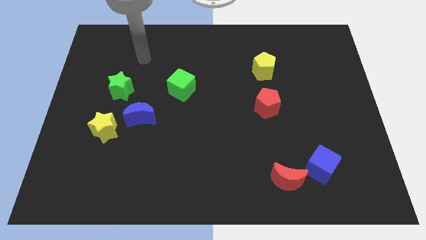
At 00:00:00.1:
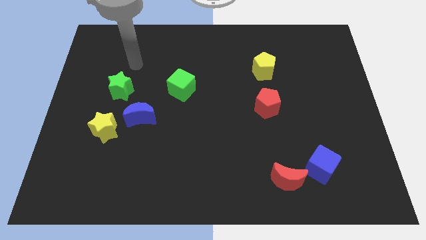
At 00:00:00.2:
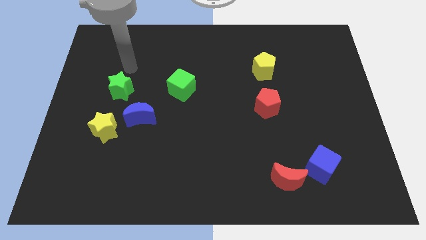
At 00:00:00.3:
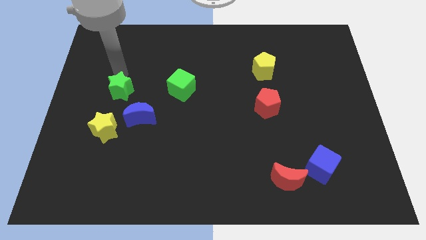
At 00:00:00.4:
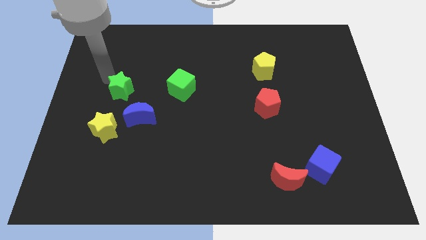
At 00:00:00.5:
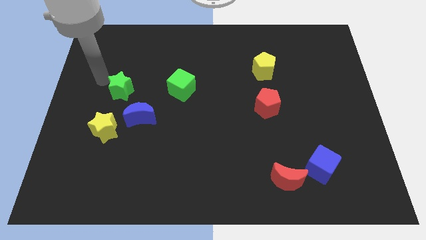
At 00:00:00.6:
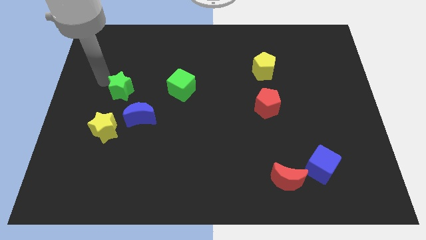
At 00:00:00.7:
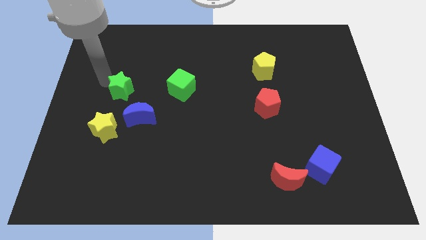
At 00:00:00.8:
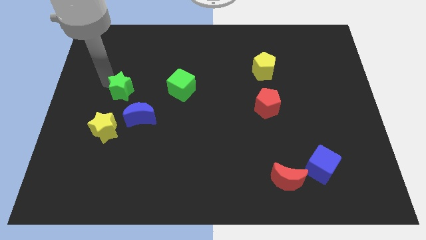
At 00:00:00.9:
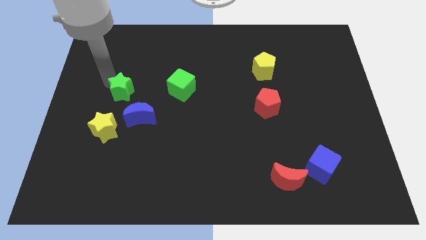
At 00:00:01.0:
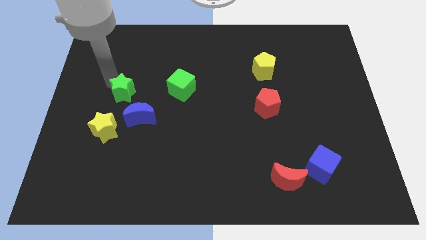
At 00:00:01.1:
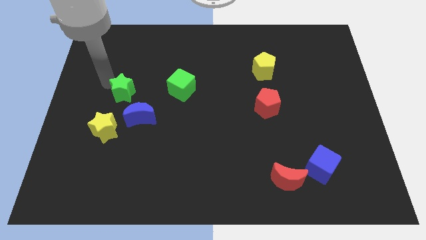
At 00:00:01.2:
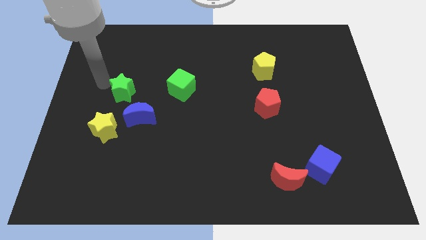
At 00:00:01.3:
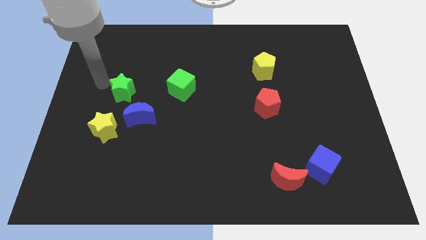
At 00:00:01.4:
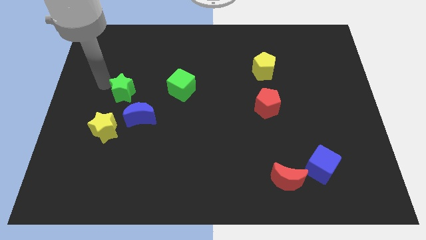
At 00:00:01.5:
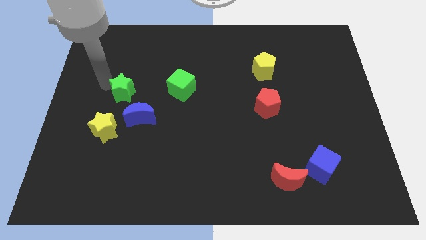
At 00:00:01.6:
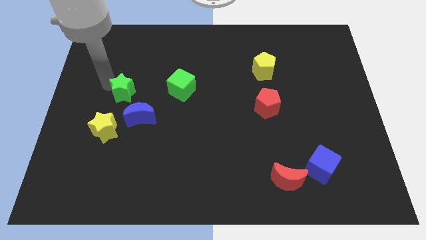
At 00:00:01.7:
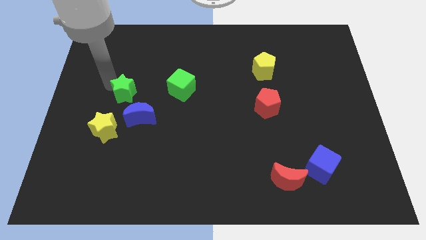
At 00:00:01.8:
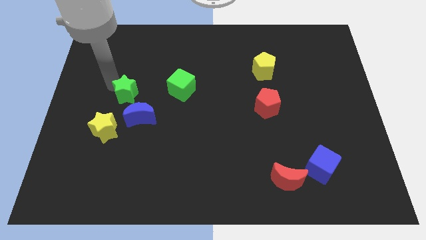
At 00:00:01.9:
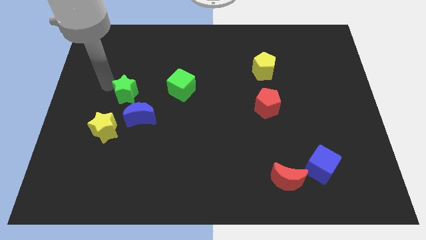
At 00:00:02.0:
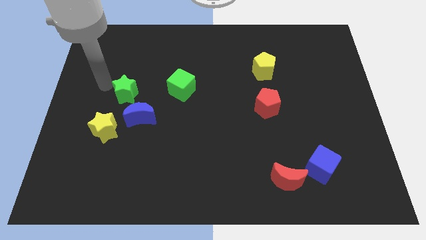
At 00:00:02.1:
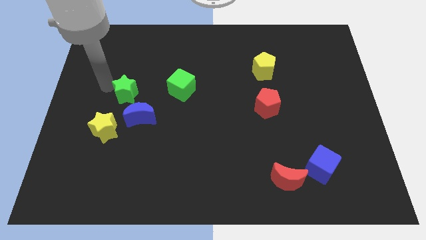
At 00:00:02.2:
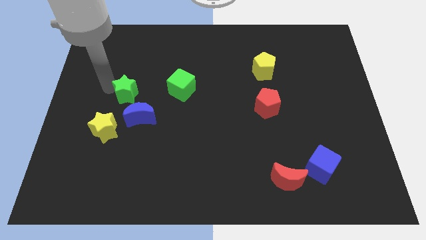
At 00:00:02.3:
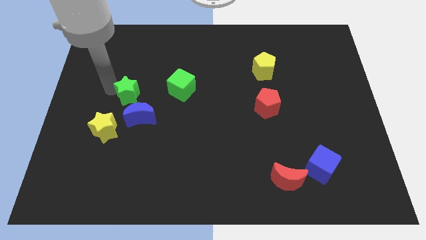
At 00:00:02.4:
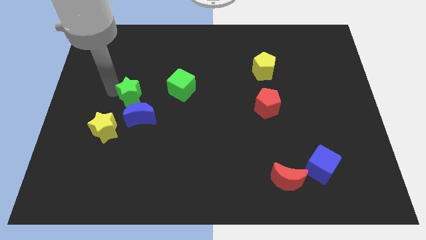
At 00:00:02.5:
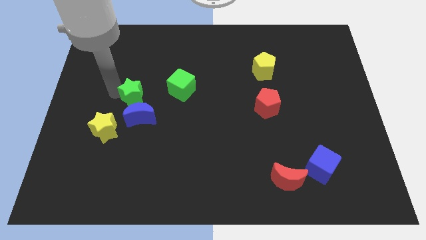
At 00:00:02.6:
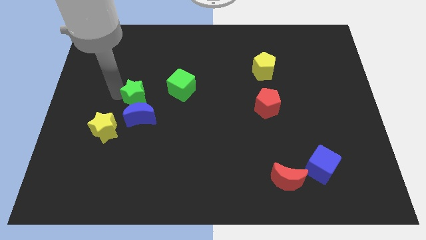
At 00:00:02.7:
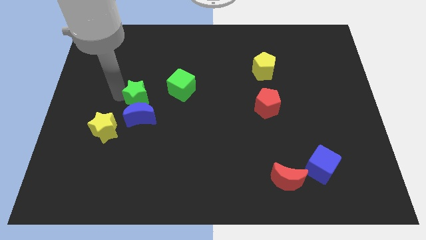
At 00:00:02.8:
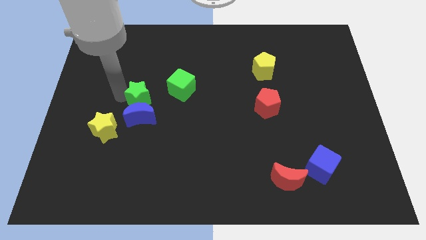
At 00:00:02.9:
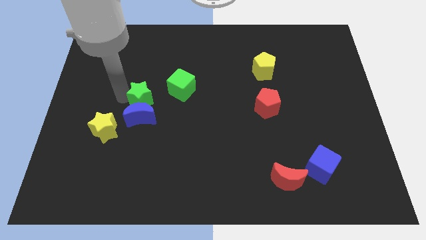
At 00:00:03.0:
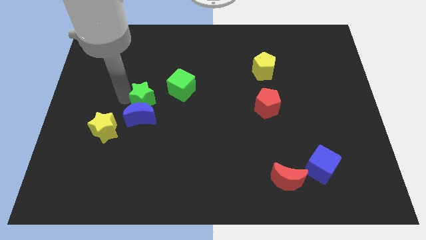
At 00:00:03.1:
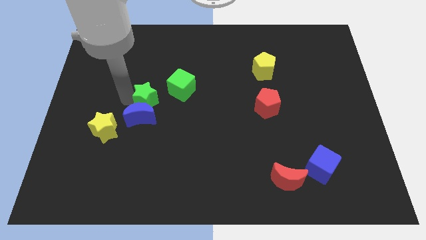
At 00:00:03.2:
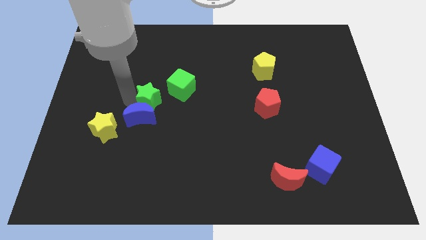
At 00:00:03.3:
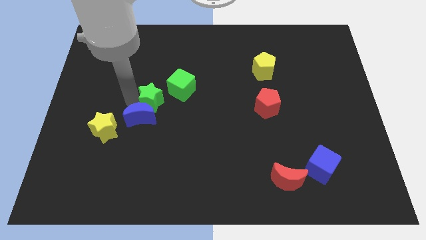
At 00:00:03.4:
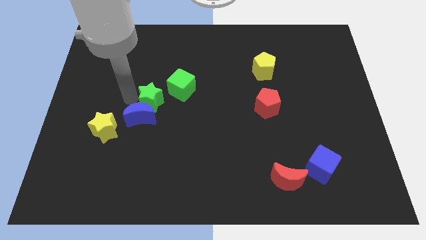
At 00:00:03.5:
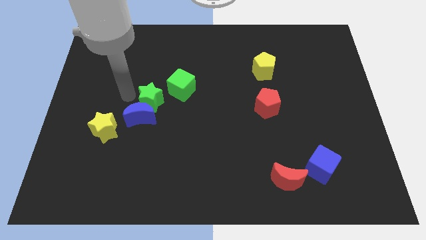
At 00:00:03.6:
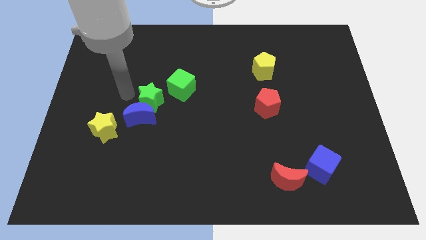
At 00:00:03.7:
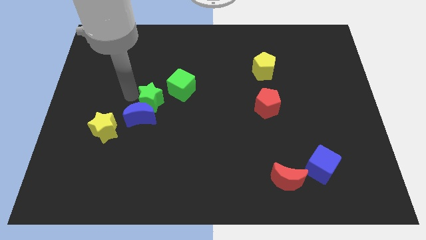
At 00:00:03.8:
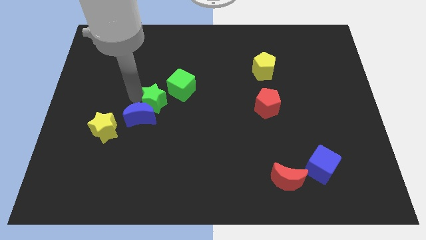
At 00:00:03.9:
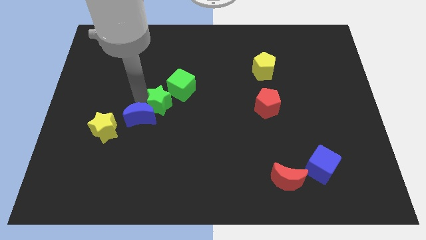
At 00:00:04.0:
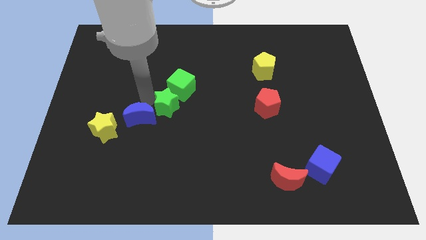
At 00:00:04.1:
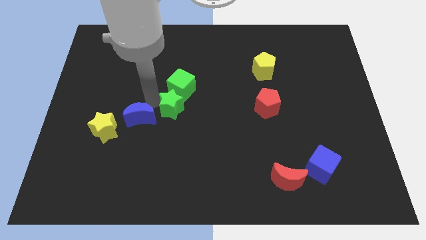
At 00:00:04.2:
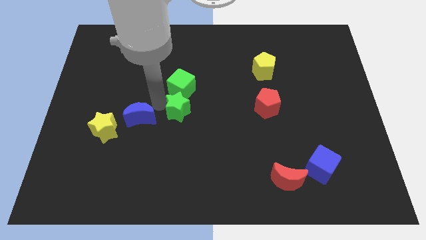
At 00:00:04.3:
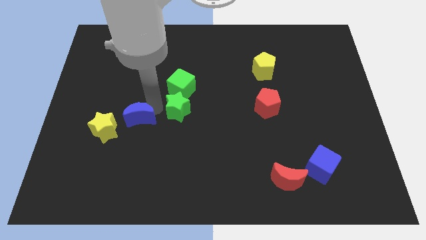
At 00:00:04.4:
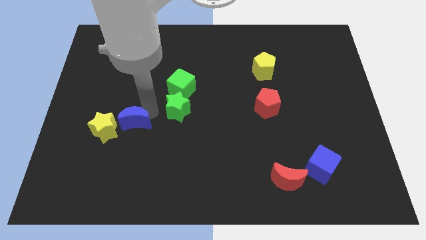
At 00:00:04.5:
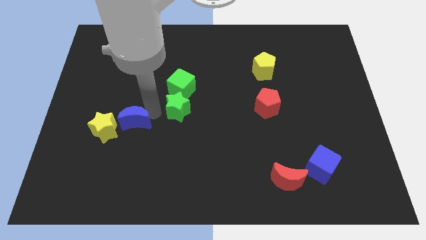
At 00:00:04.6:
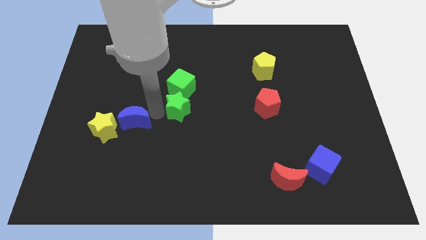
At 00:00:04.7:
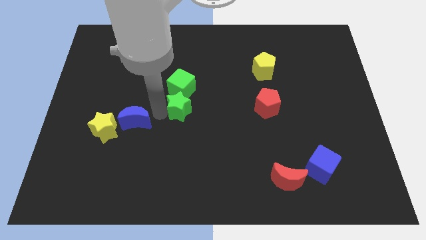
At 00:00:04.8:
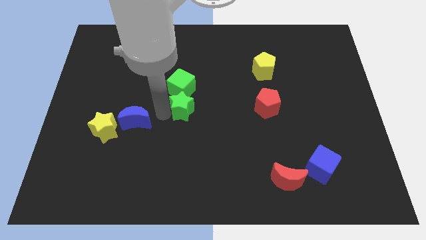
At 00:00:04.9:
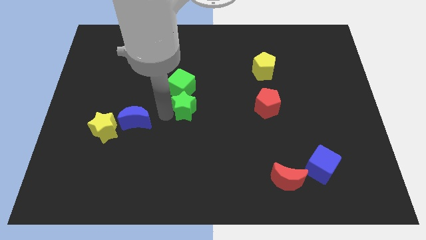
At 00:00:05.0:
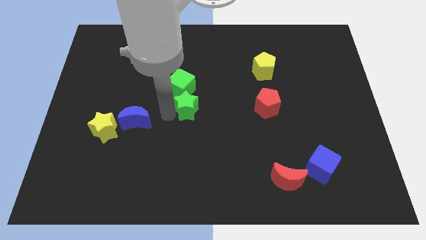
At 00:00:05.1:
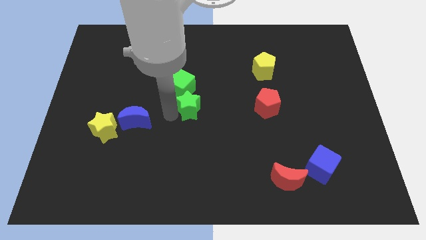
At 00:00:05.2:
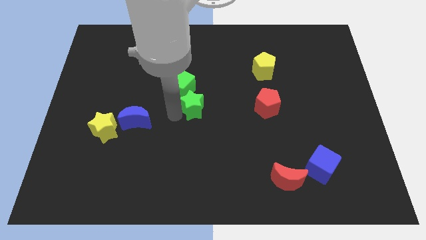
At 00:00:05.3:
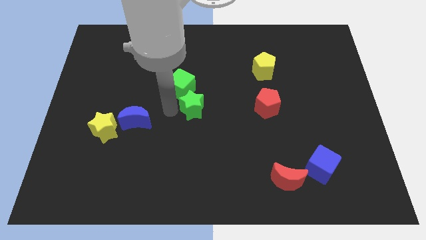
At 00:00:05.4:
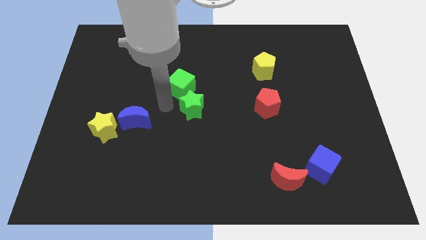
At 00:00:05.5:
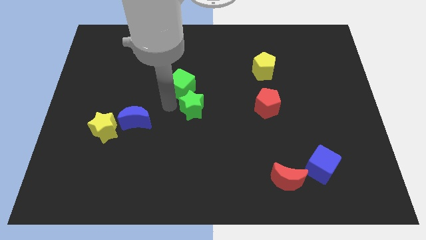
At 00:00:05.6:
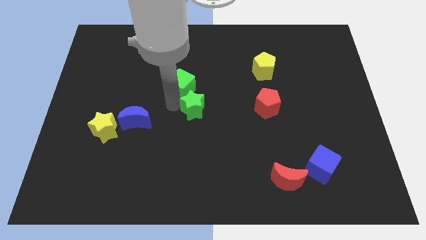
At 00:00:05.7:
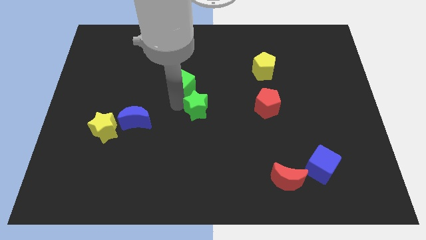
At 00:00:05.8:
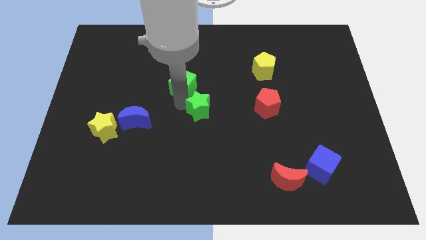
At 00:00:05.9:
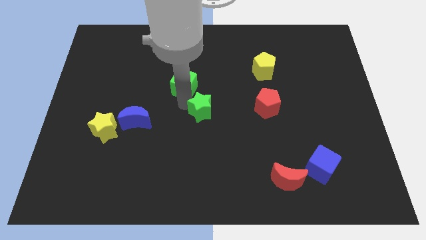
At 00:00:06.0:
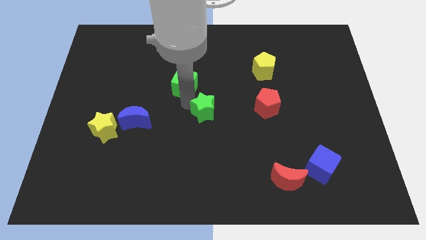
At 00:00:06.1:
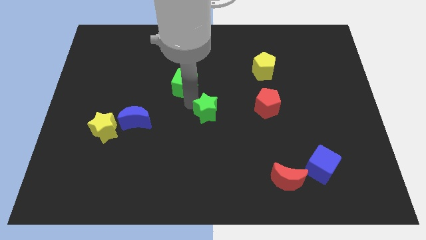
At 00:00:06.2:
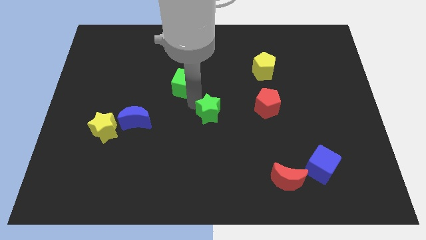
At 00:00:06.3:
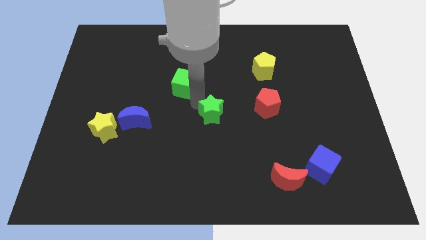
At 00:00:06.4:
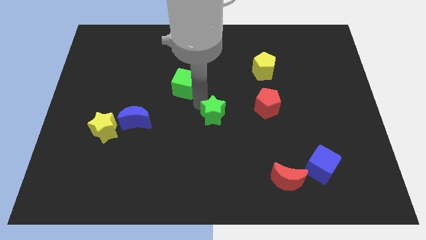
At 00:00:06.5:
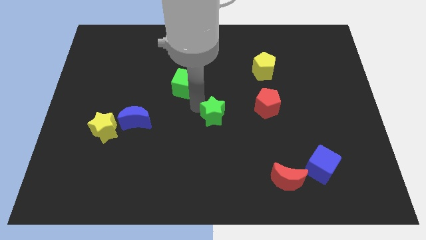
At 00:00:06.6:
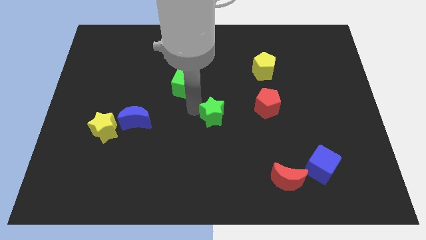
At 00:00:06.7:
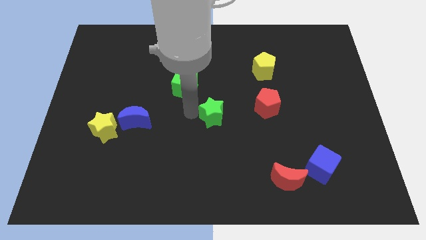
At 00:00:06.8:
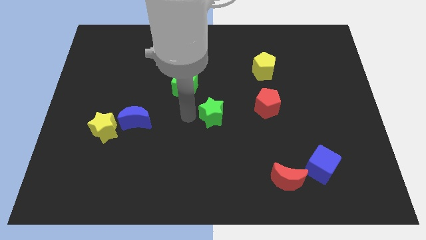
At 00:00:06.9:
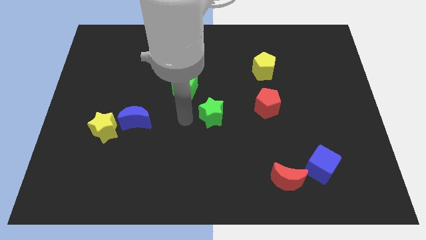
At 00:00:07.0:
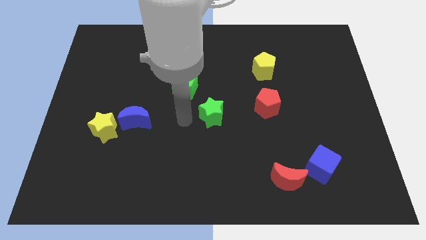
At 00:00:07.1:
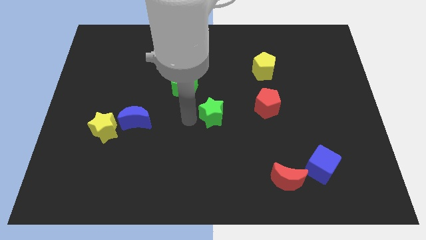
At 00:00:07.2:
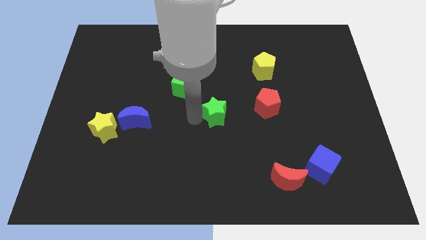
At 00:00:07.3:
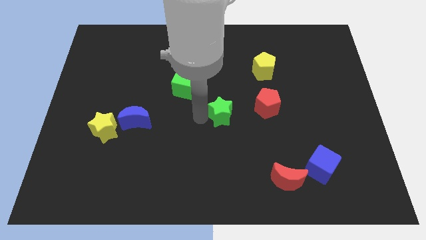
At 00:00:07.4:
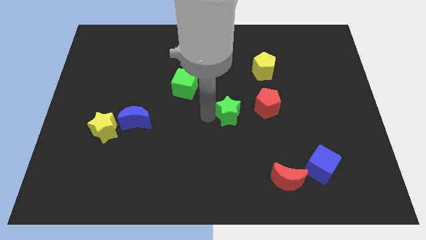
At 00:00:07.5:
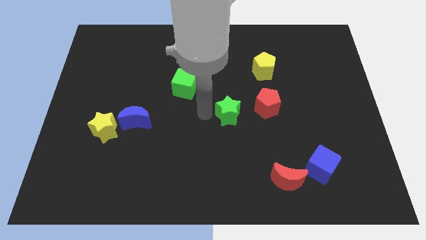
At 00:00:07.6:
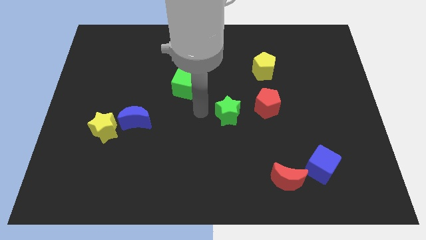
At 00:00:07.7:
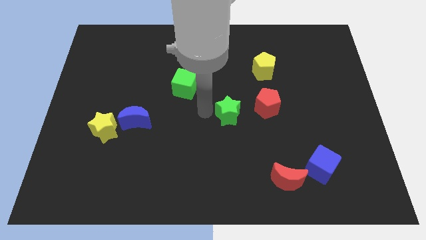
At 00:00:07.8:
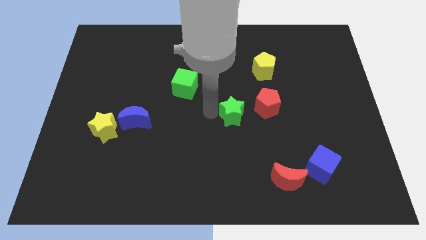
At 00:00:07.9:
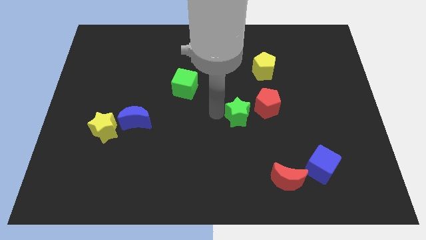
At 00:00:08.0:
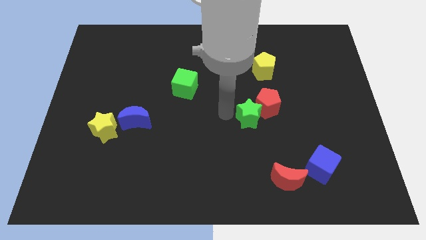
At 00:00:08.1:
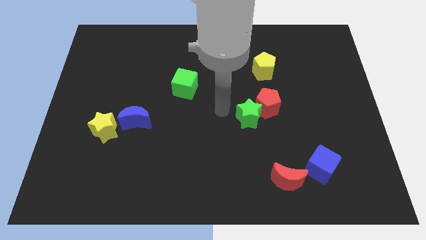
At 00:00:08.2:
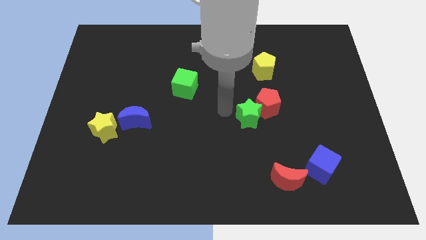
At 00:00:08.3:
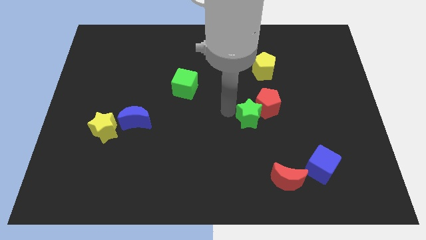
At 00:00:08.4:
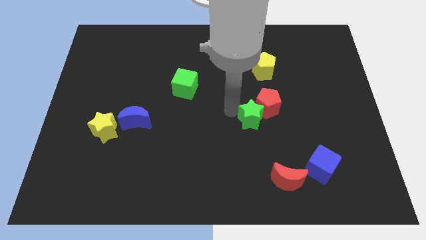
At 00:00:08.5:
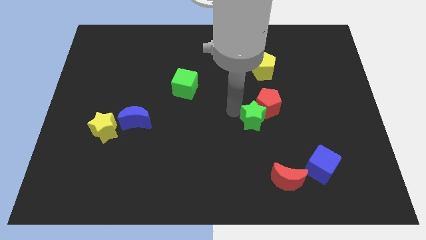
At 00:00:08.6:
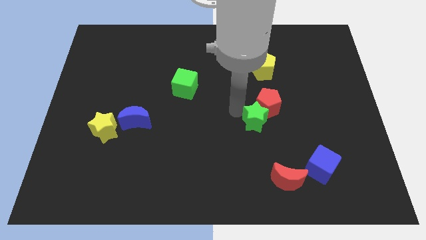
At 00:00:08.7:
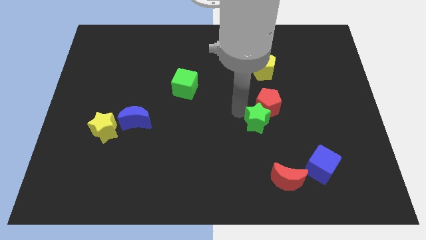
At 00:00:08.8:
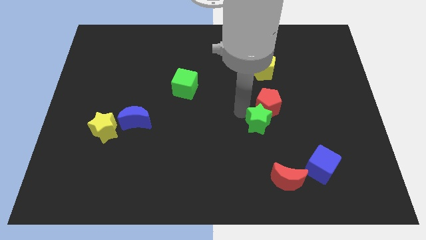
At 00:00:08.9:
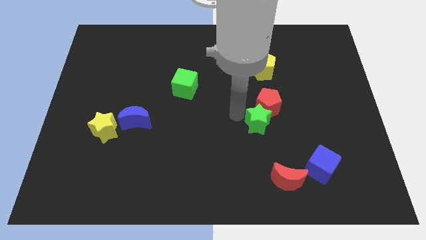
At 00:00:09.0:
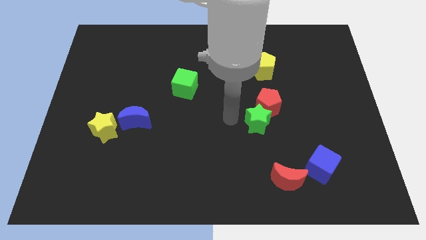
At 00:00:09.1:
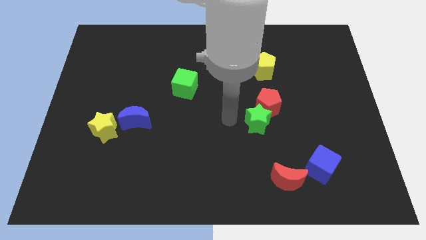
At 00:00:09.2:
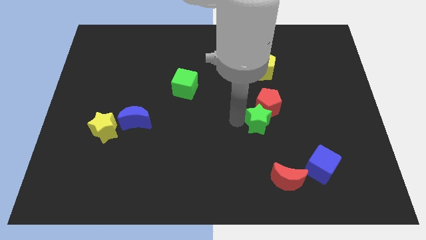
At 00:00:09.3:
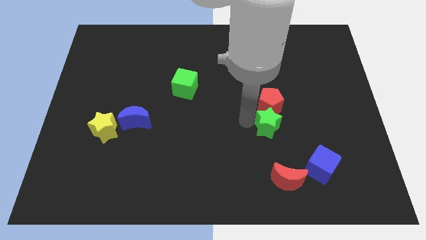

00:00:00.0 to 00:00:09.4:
move the green star diagonally down and to the right of the red pentagon
